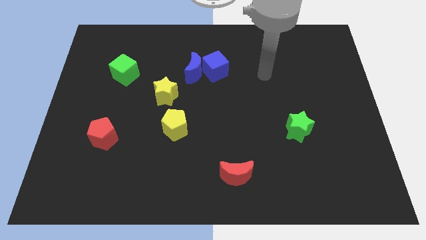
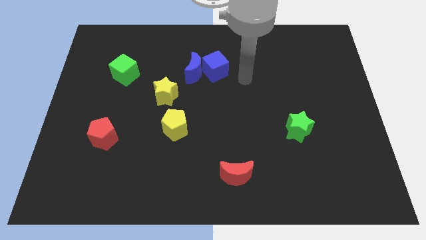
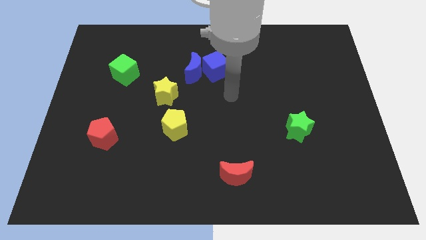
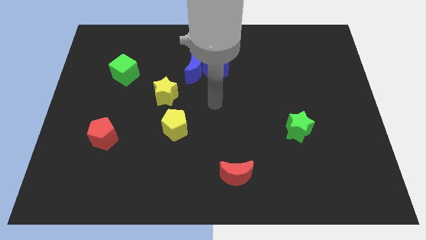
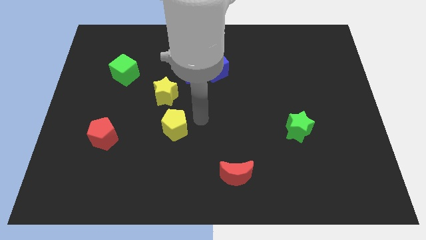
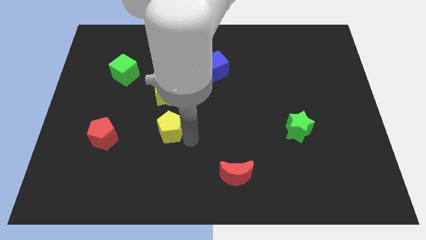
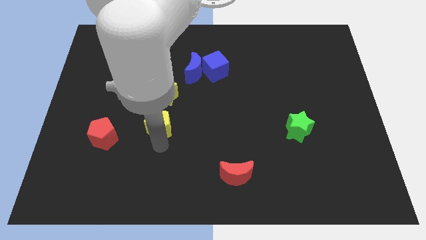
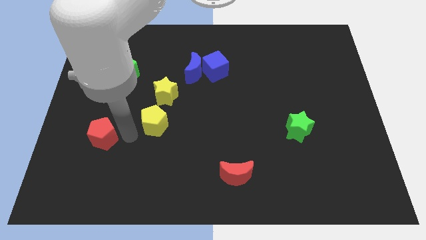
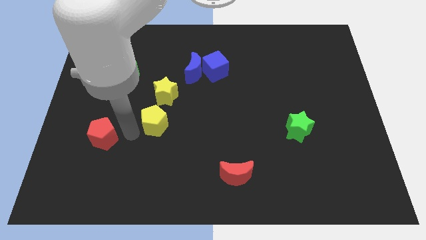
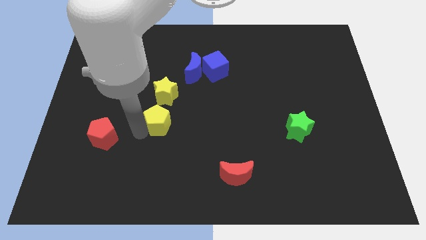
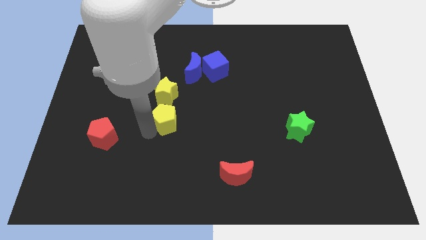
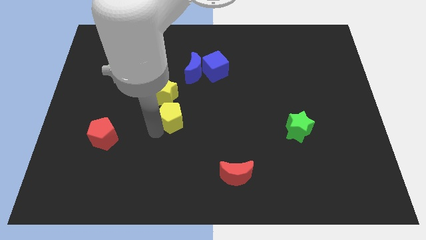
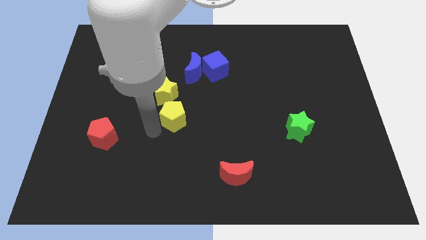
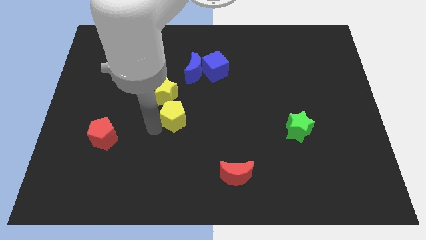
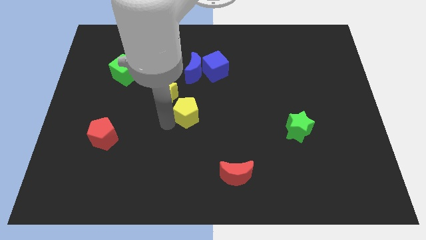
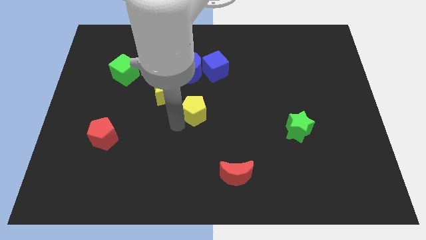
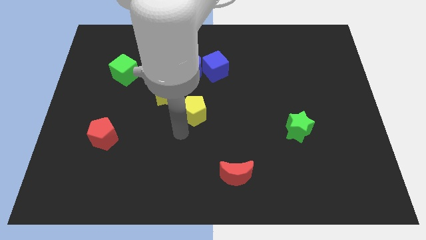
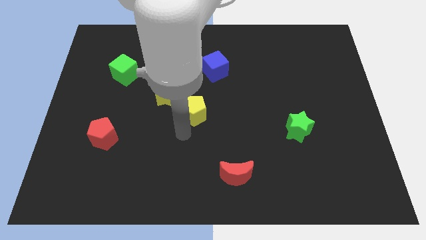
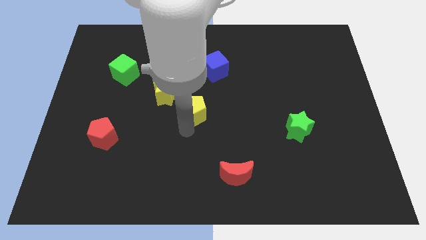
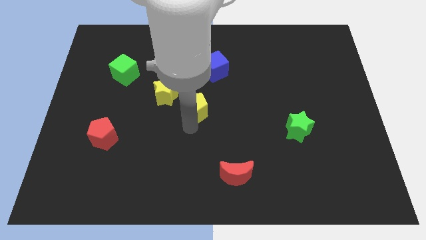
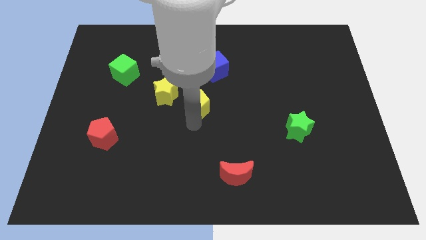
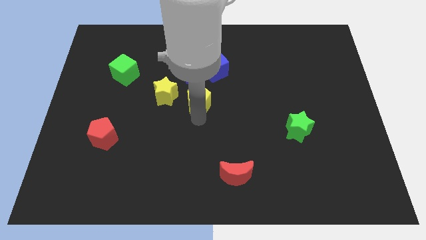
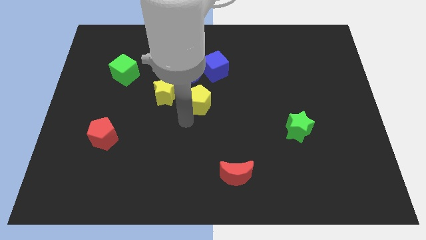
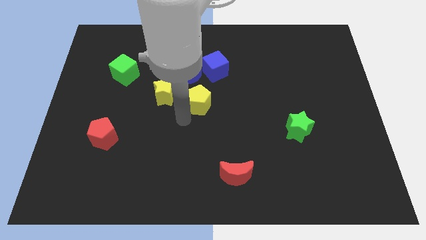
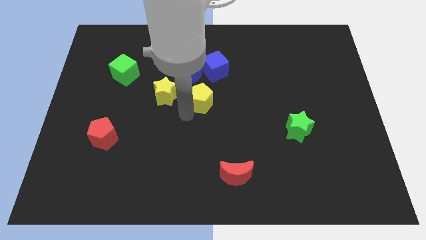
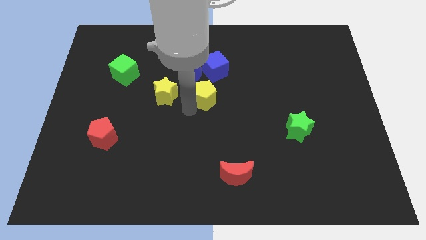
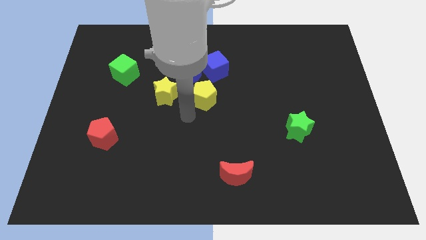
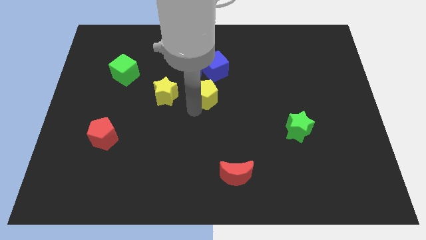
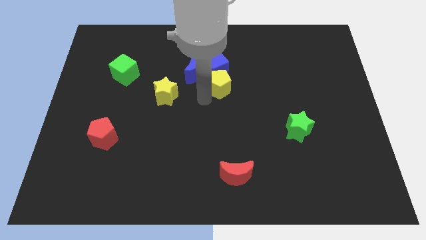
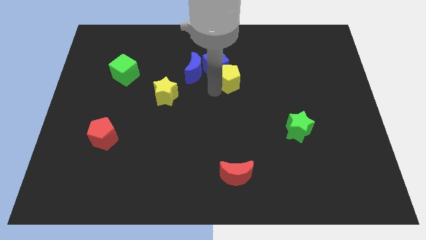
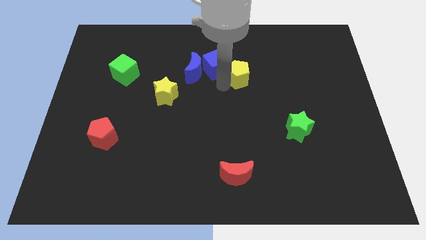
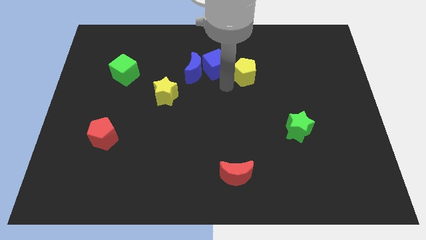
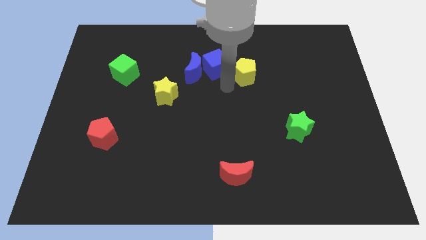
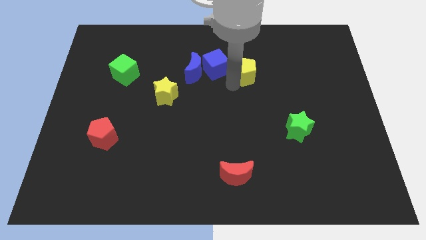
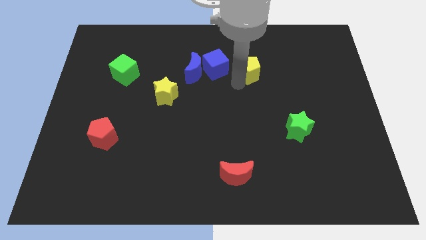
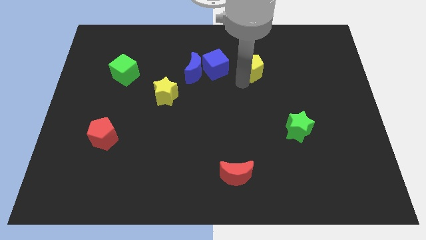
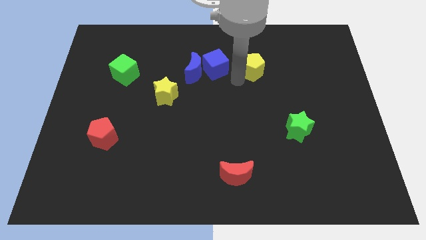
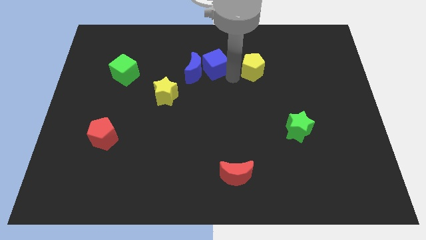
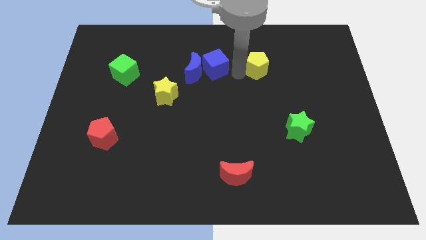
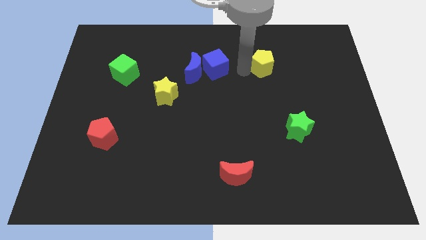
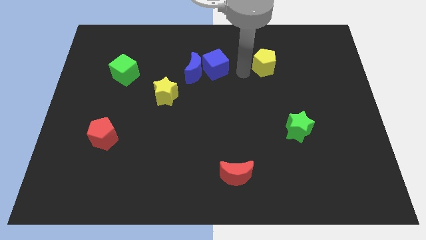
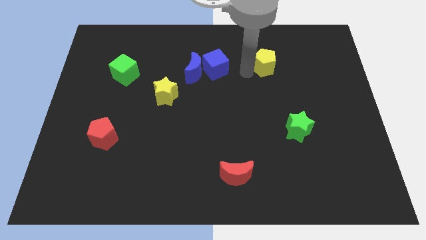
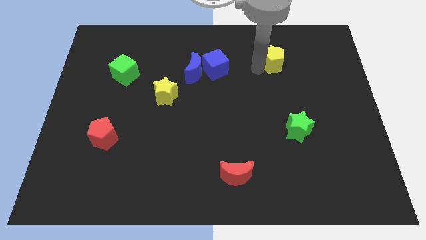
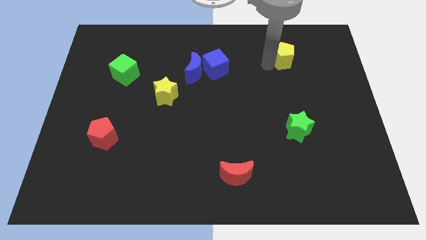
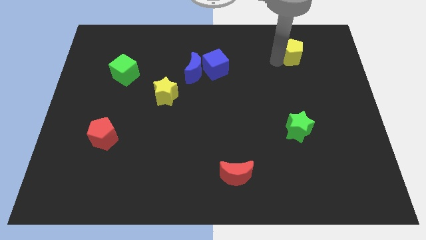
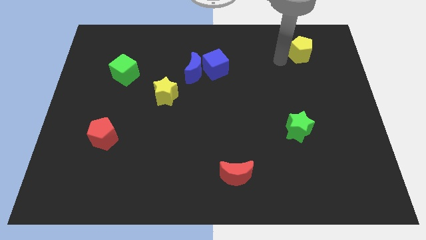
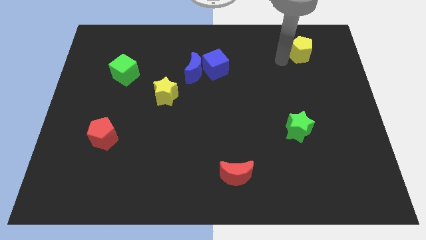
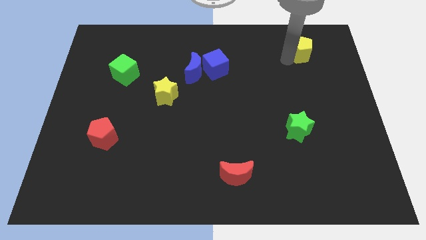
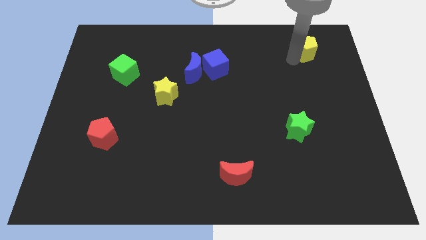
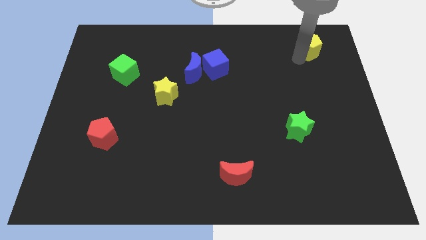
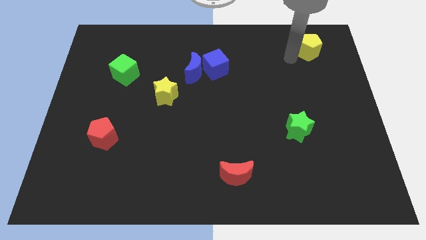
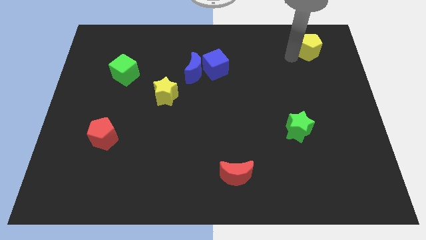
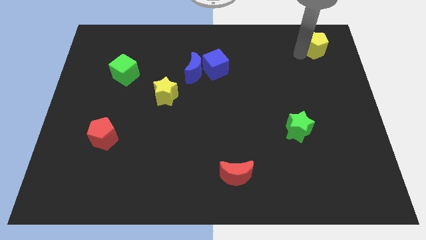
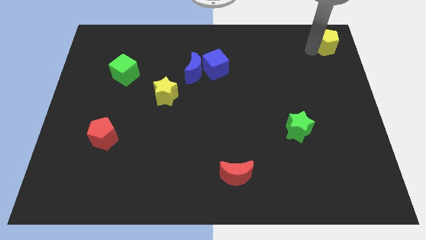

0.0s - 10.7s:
push the yellow pentagon to the upper right corner

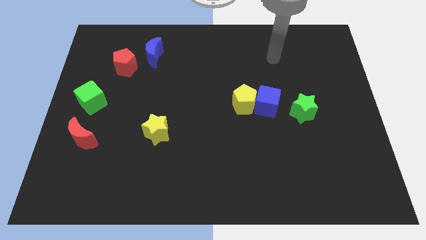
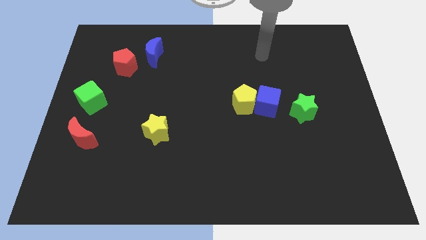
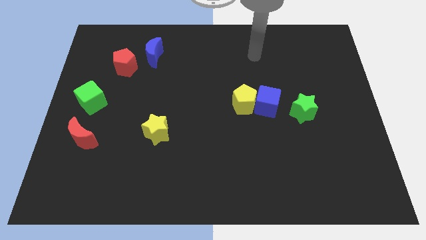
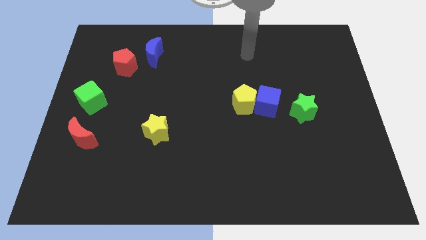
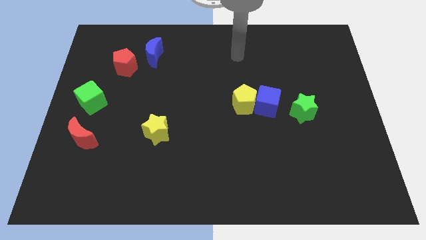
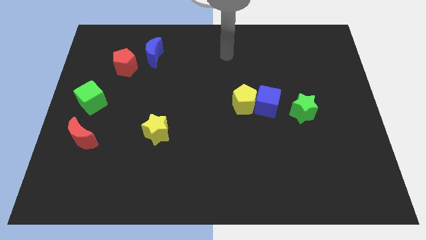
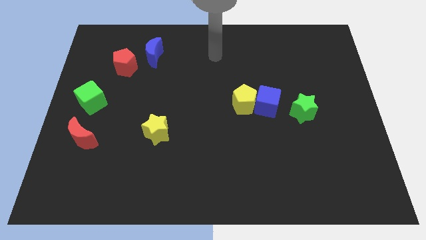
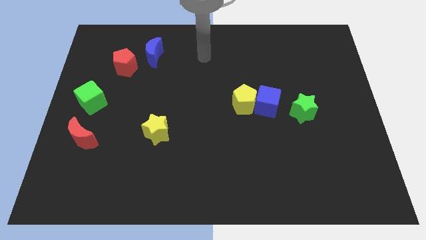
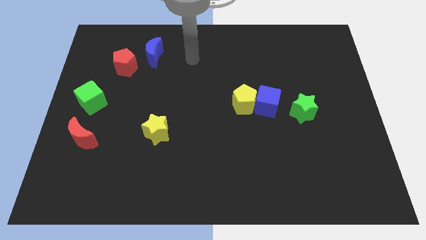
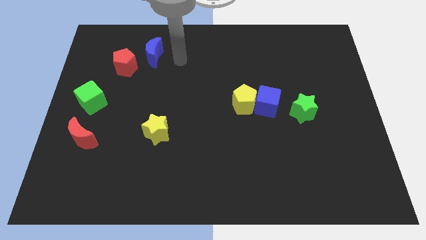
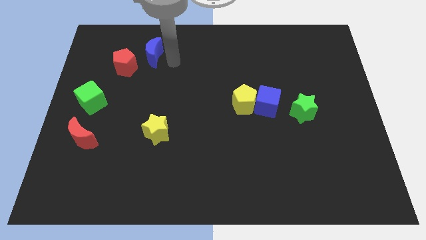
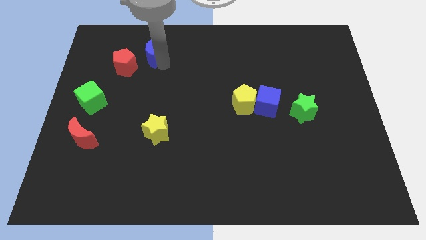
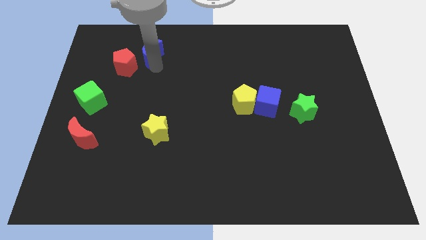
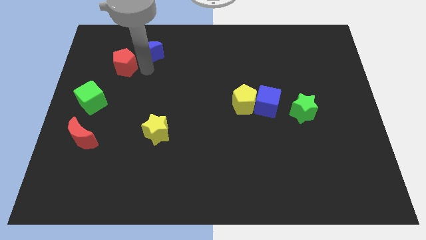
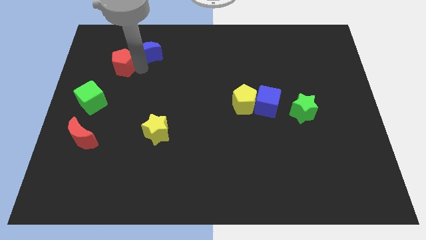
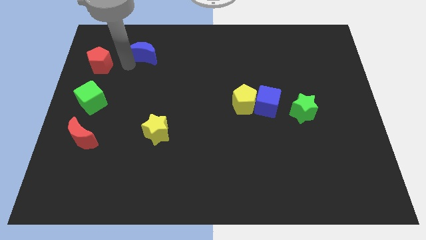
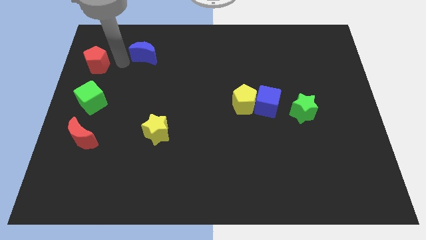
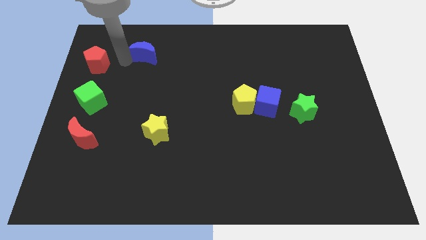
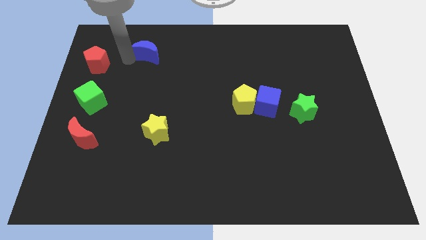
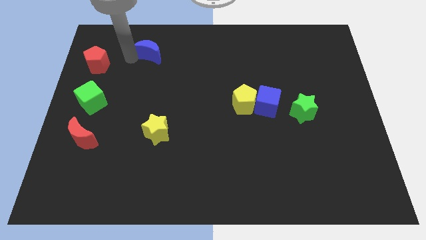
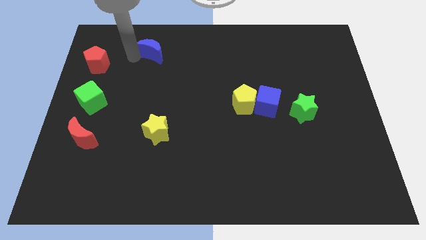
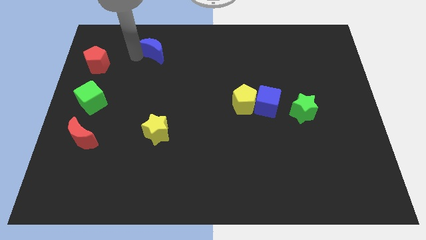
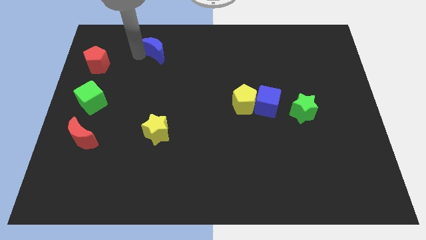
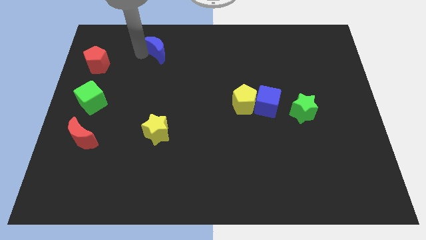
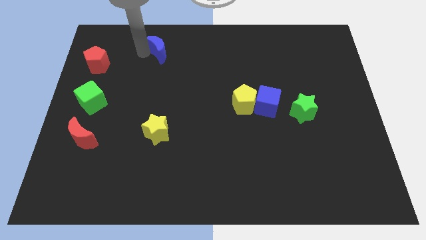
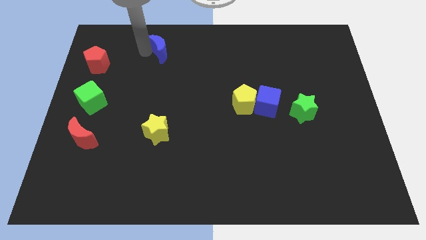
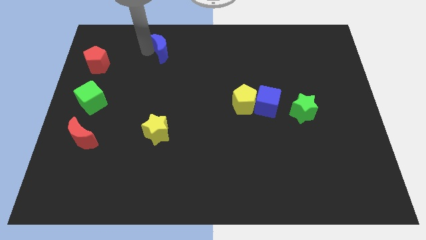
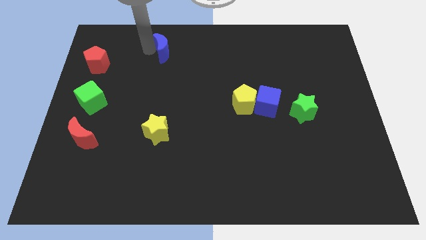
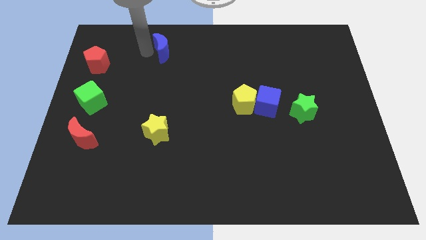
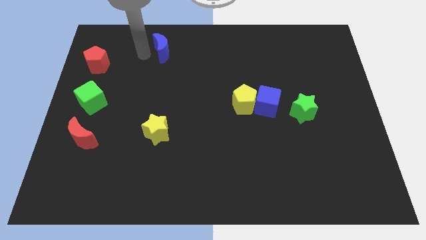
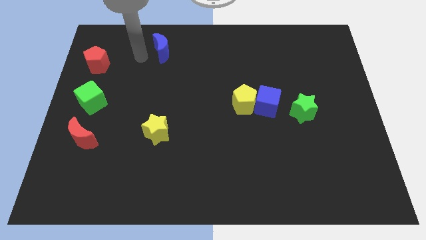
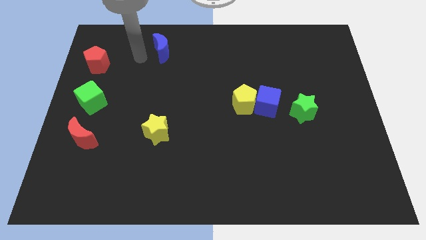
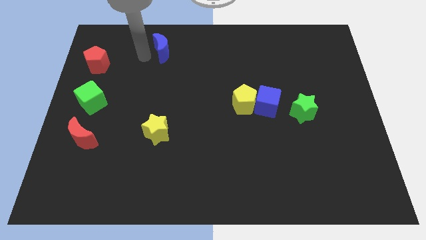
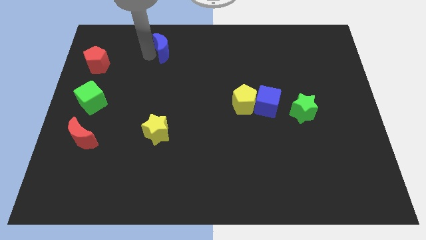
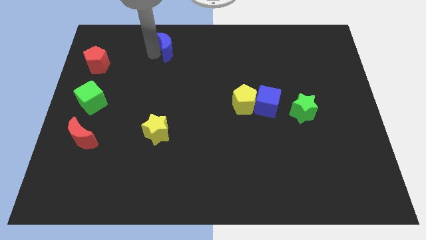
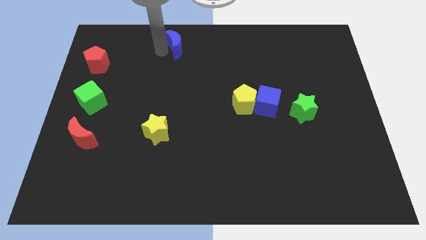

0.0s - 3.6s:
slide the blue moon to the top
